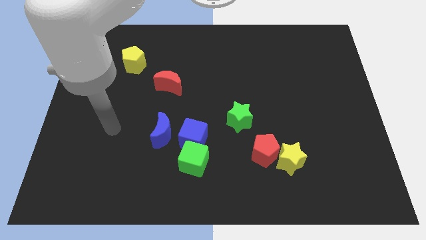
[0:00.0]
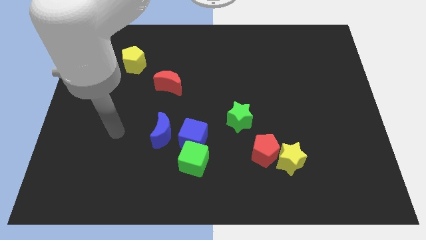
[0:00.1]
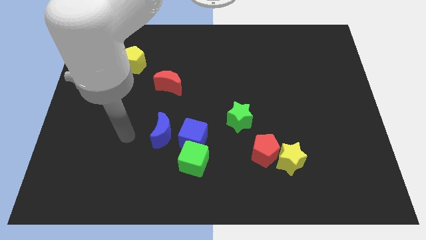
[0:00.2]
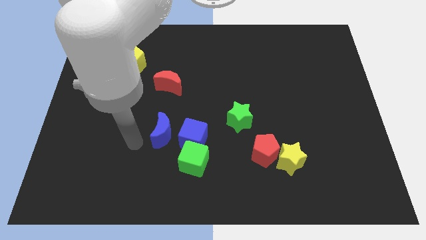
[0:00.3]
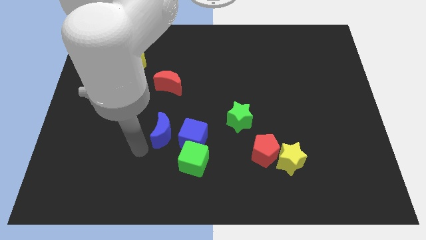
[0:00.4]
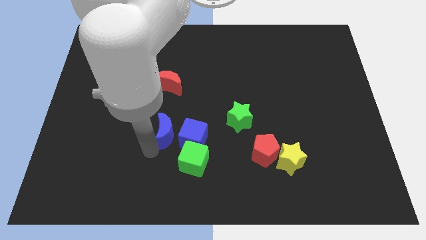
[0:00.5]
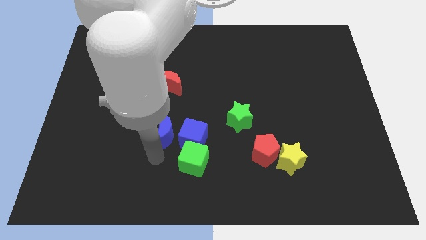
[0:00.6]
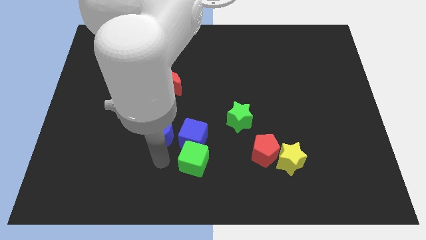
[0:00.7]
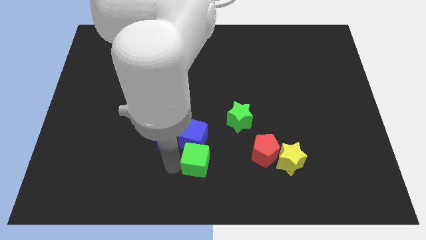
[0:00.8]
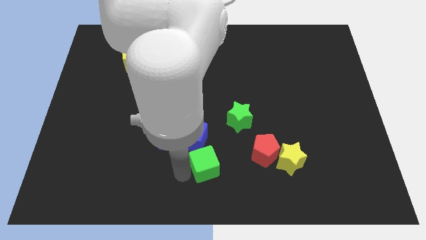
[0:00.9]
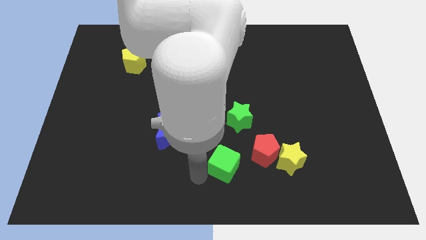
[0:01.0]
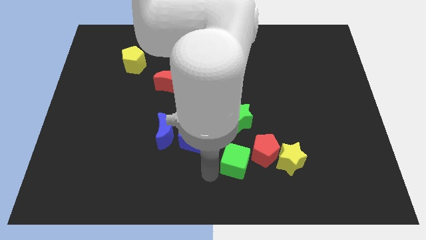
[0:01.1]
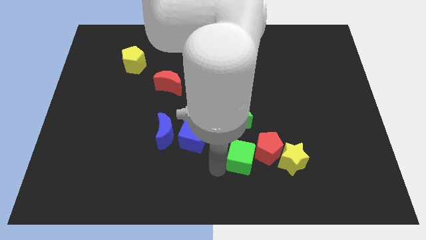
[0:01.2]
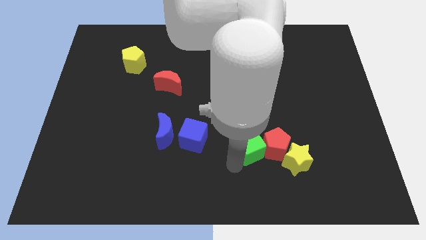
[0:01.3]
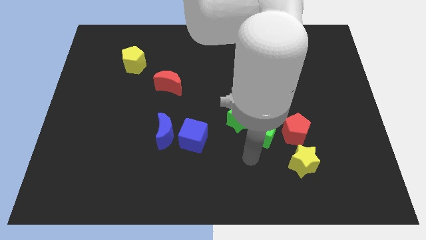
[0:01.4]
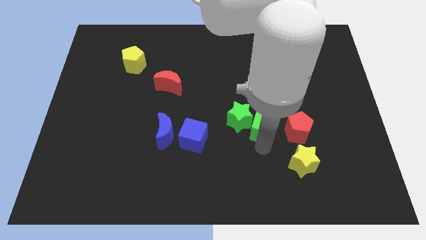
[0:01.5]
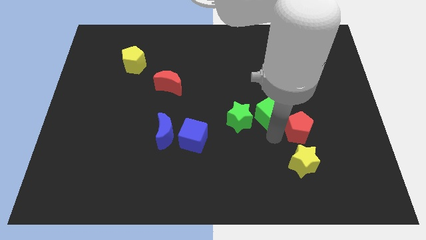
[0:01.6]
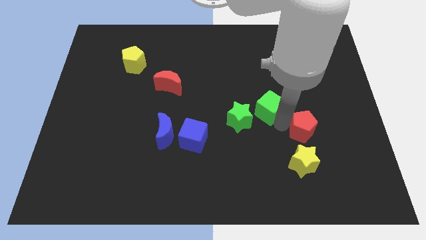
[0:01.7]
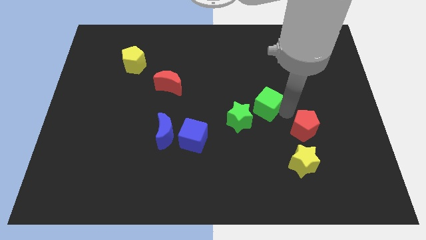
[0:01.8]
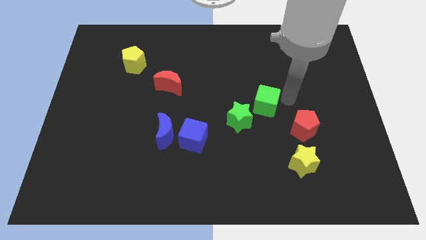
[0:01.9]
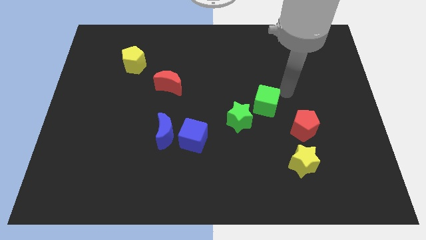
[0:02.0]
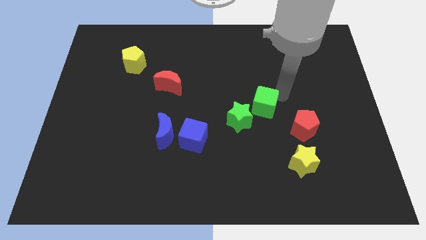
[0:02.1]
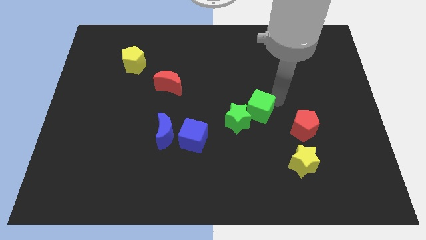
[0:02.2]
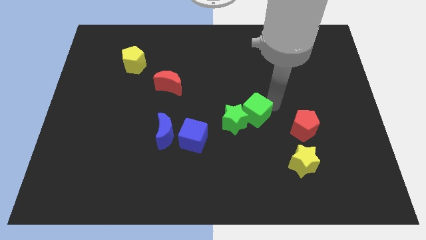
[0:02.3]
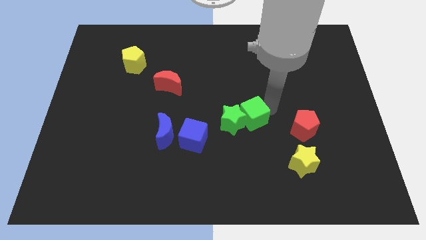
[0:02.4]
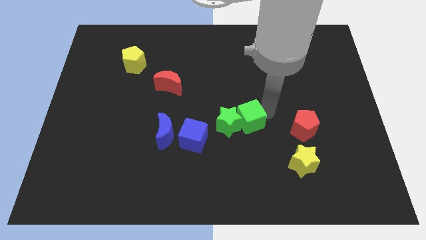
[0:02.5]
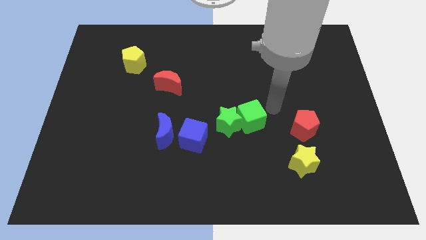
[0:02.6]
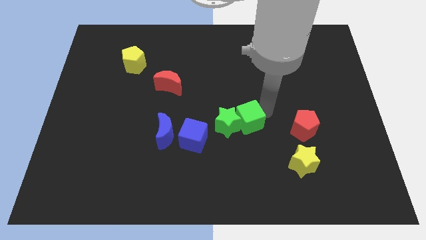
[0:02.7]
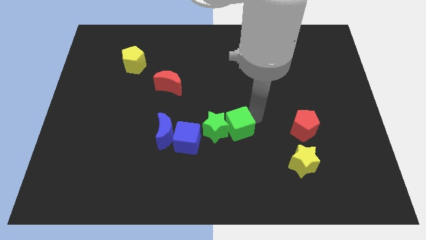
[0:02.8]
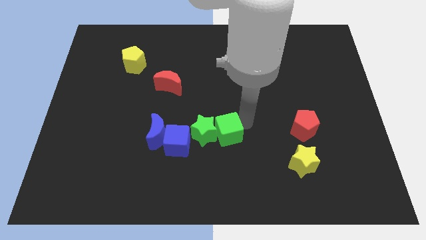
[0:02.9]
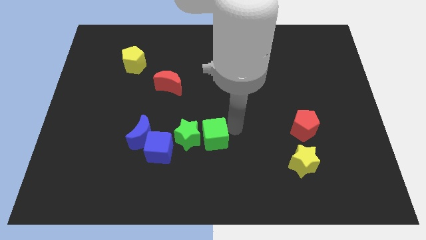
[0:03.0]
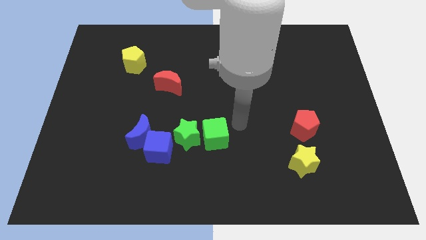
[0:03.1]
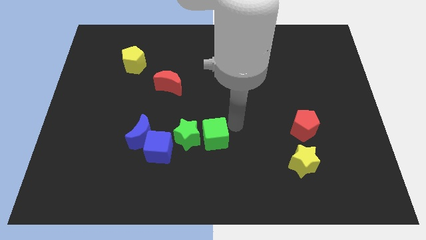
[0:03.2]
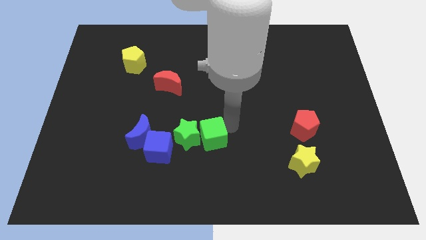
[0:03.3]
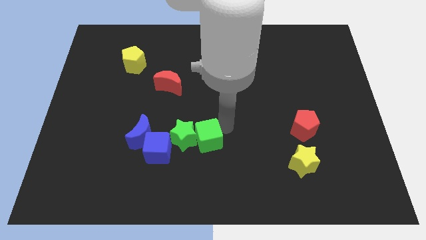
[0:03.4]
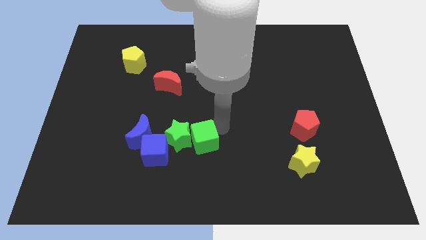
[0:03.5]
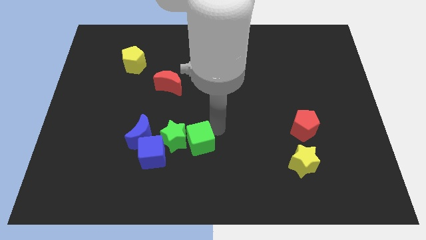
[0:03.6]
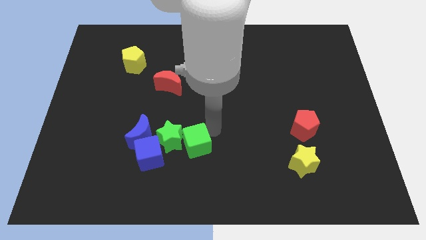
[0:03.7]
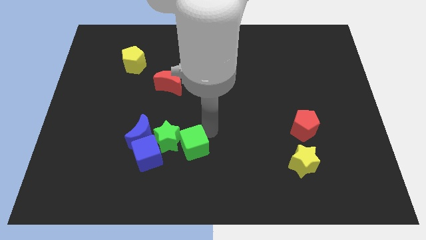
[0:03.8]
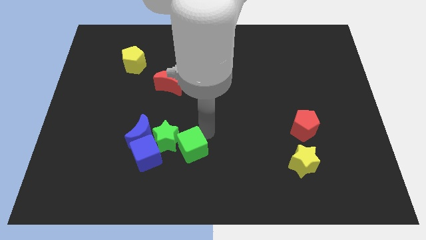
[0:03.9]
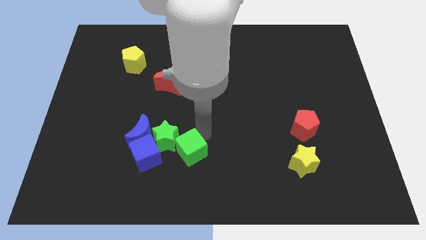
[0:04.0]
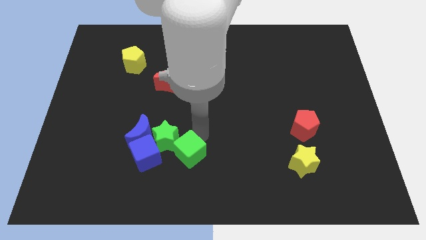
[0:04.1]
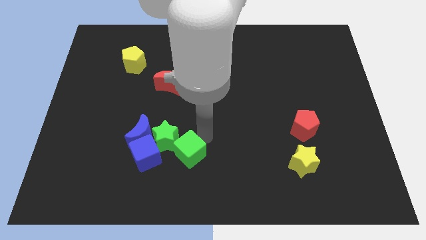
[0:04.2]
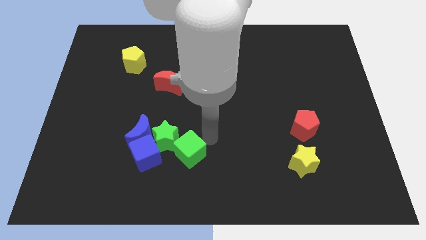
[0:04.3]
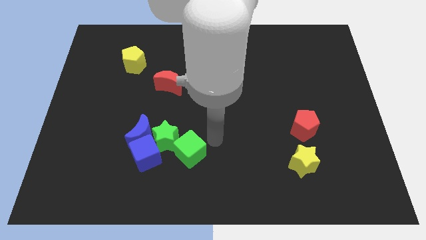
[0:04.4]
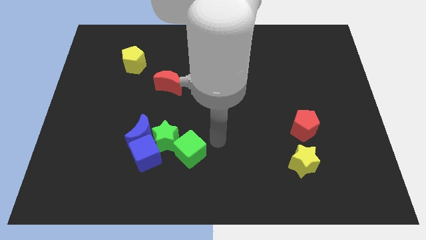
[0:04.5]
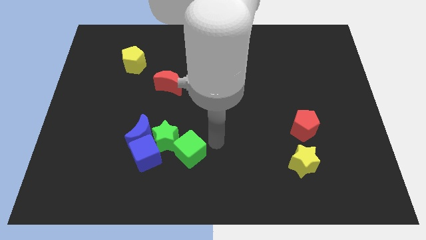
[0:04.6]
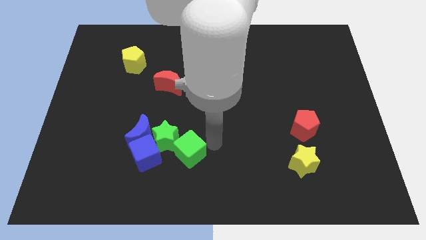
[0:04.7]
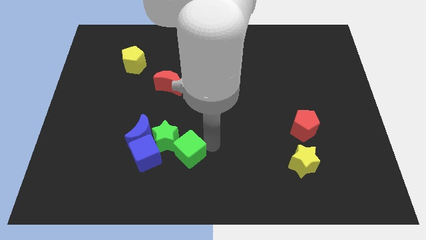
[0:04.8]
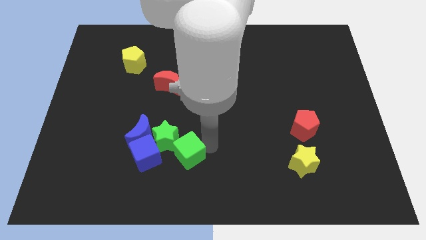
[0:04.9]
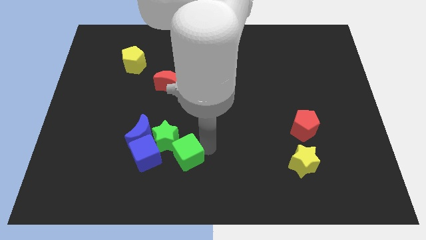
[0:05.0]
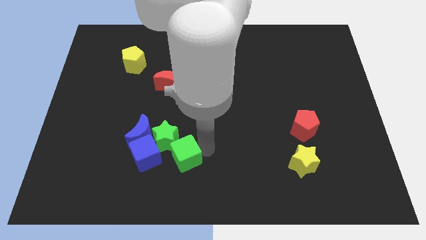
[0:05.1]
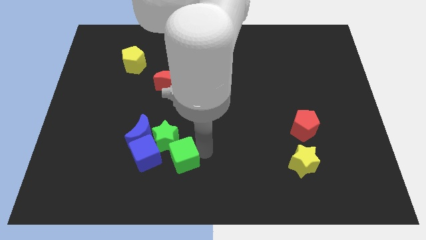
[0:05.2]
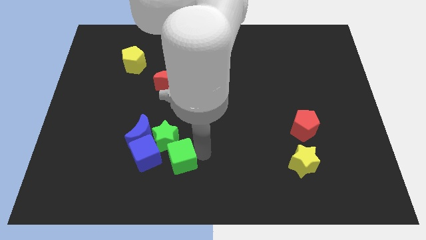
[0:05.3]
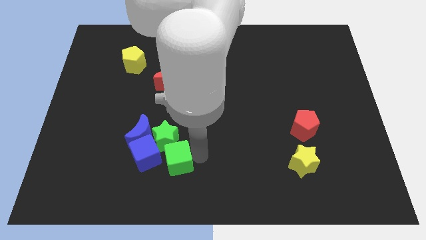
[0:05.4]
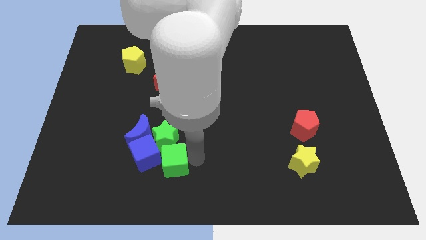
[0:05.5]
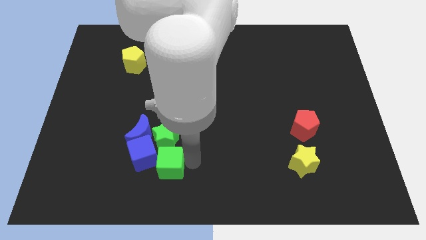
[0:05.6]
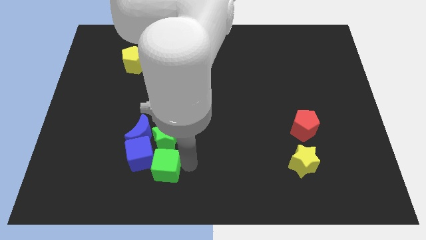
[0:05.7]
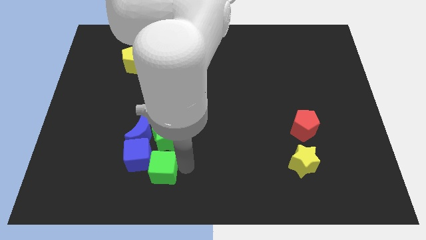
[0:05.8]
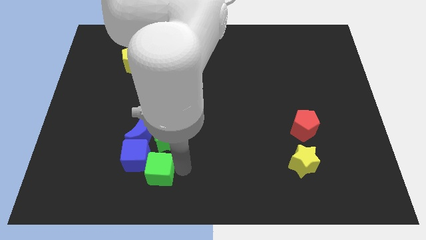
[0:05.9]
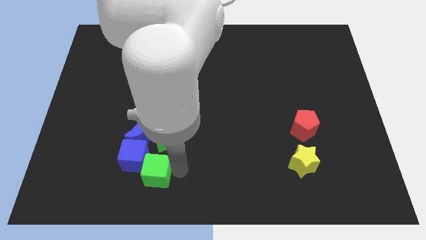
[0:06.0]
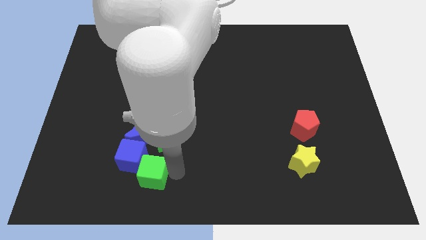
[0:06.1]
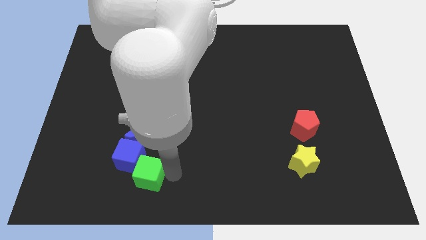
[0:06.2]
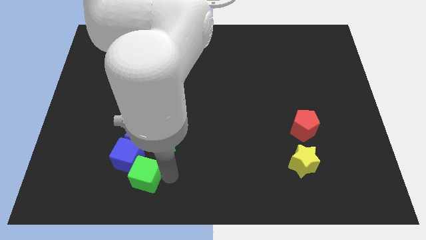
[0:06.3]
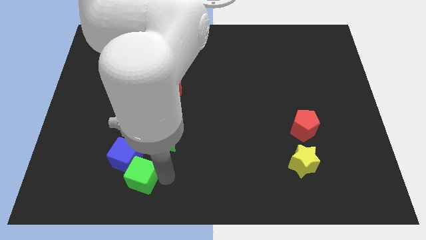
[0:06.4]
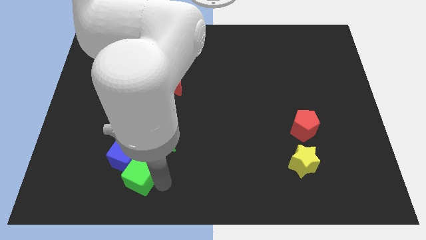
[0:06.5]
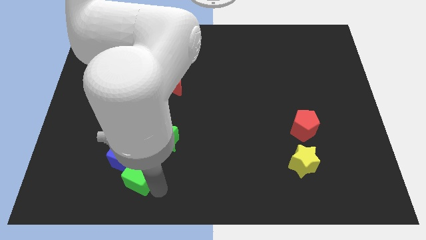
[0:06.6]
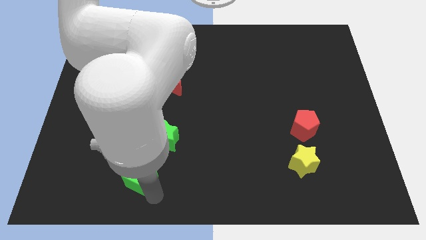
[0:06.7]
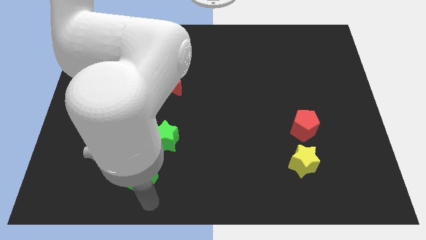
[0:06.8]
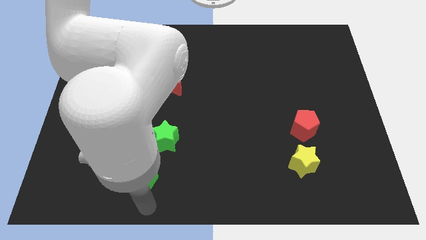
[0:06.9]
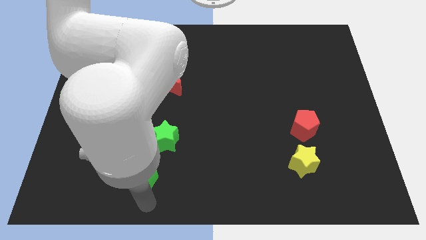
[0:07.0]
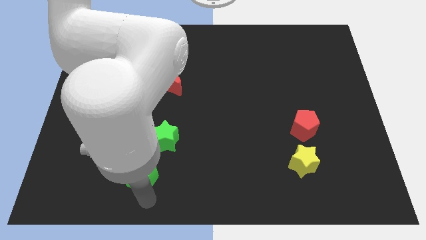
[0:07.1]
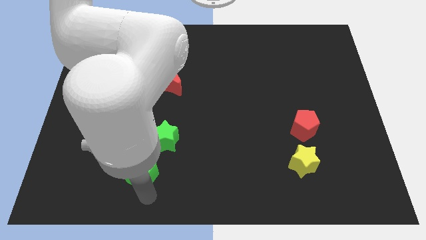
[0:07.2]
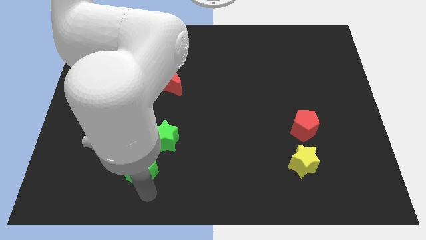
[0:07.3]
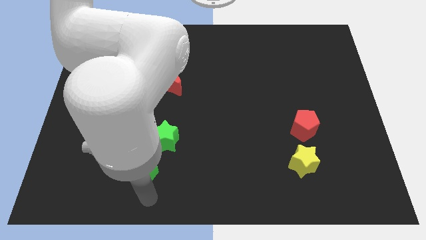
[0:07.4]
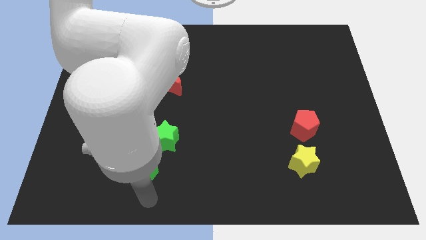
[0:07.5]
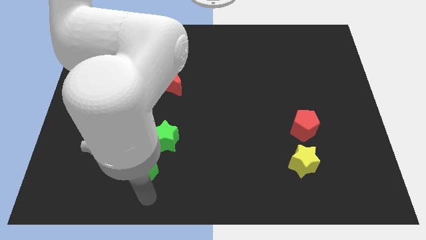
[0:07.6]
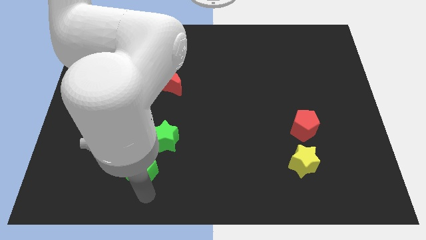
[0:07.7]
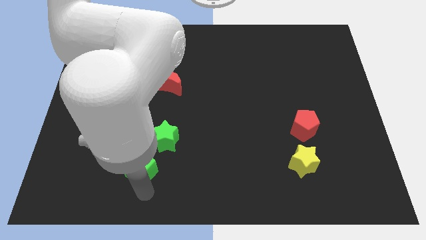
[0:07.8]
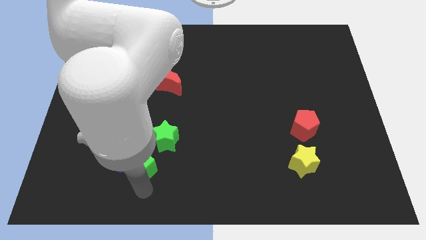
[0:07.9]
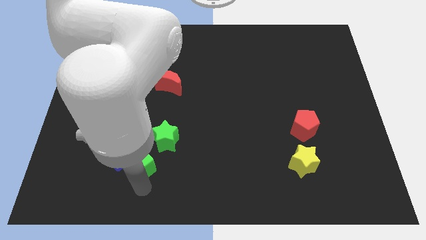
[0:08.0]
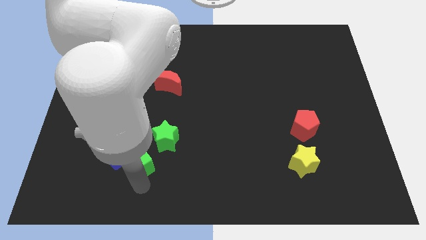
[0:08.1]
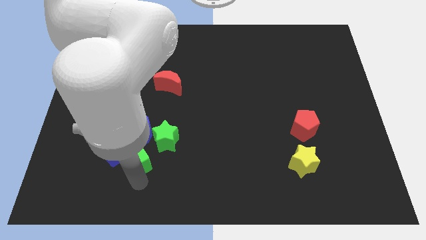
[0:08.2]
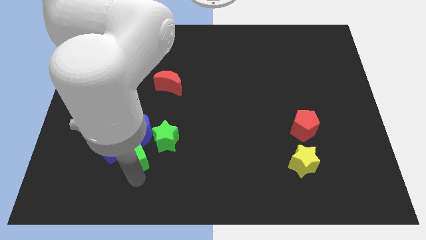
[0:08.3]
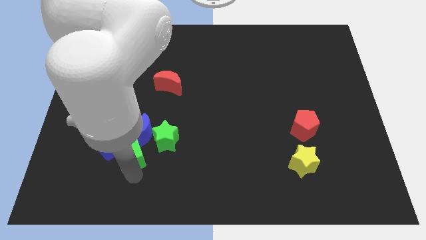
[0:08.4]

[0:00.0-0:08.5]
move the green cube diagonally up and left a bit
